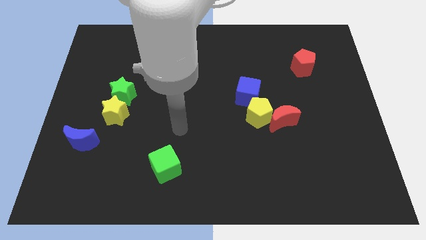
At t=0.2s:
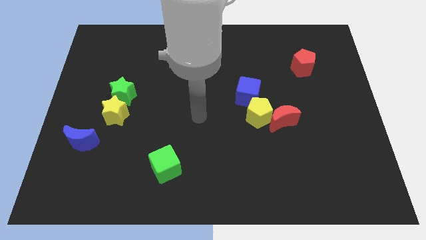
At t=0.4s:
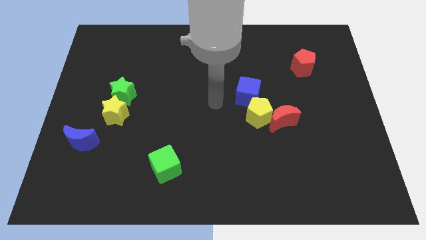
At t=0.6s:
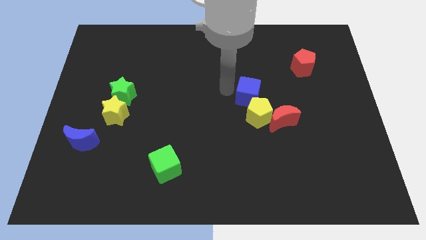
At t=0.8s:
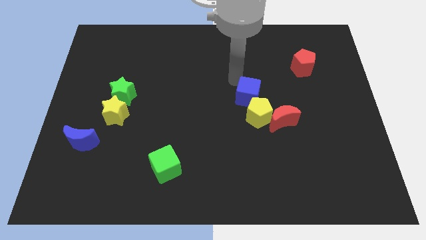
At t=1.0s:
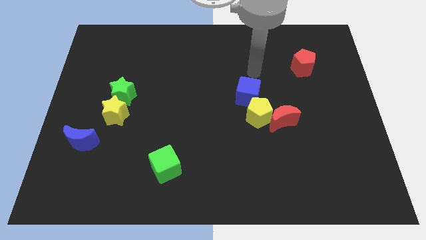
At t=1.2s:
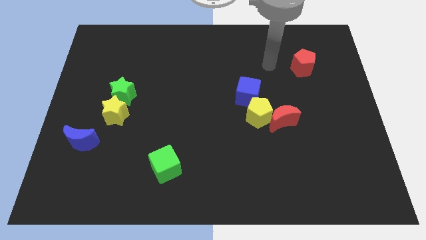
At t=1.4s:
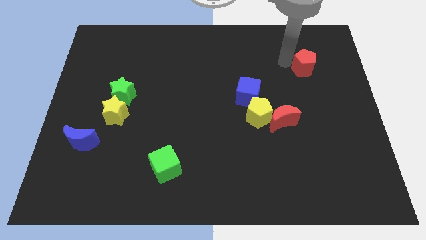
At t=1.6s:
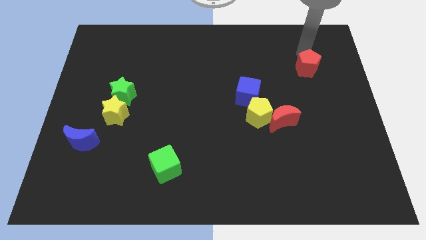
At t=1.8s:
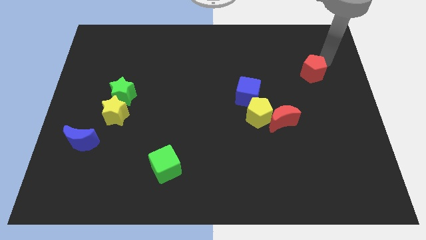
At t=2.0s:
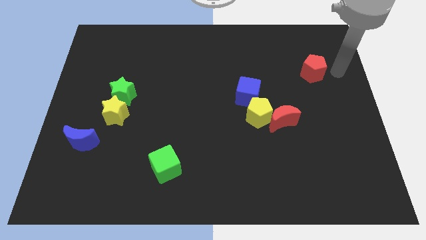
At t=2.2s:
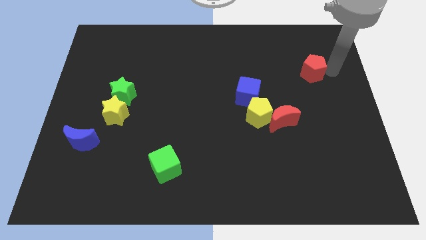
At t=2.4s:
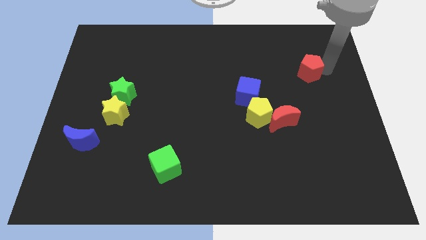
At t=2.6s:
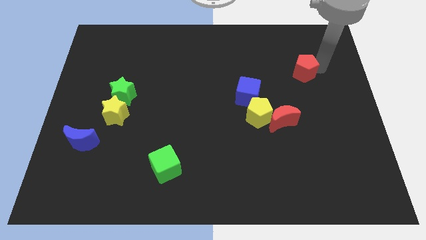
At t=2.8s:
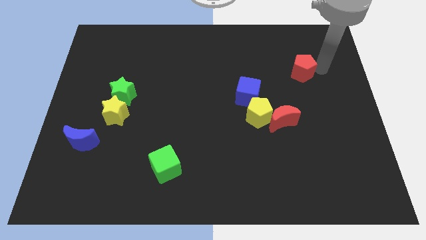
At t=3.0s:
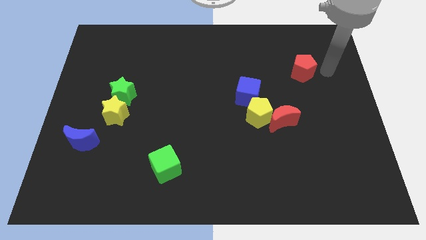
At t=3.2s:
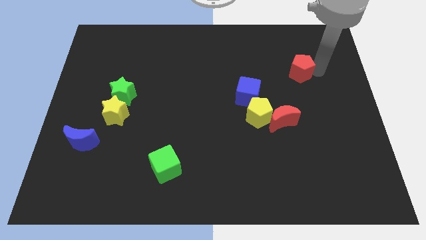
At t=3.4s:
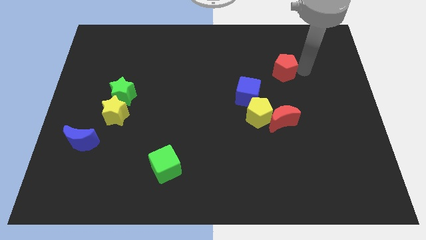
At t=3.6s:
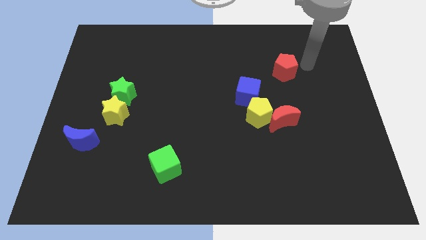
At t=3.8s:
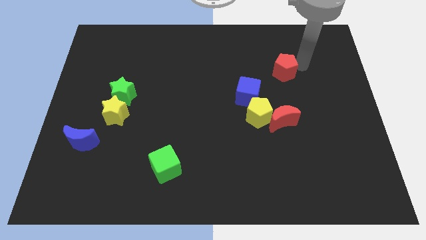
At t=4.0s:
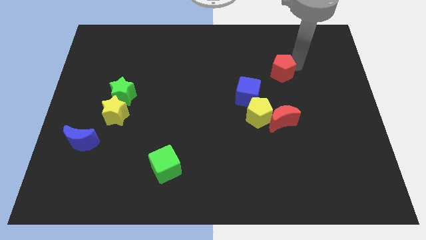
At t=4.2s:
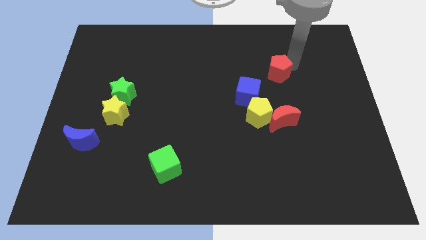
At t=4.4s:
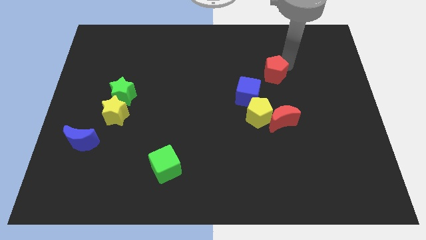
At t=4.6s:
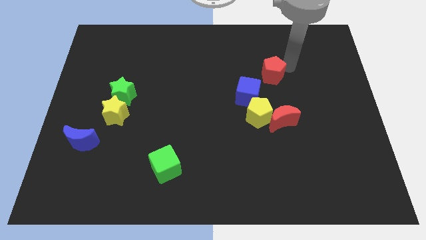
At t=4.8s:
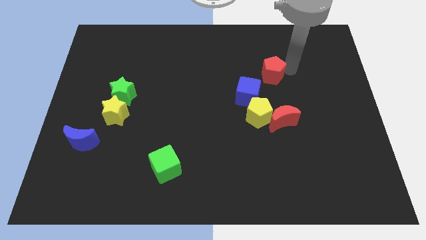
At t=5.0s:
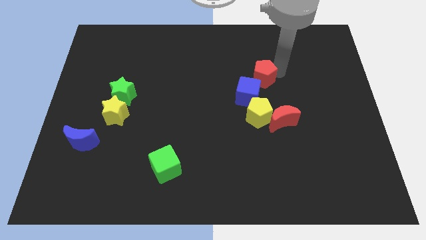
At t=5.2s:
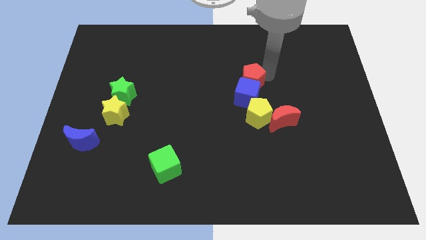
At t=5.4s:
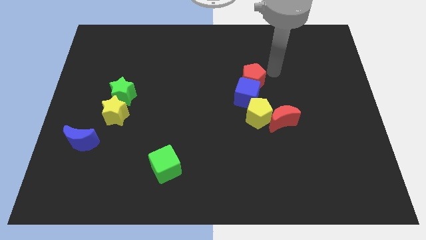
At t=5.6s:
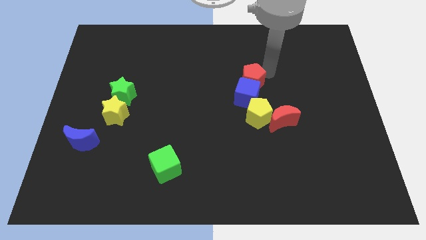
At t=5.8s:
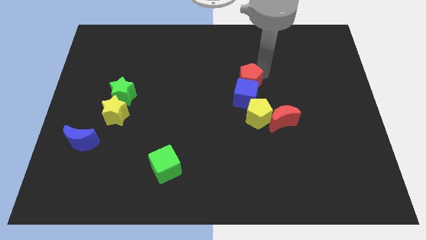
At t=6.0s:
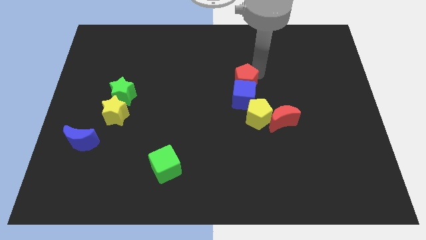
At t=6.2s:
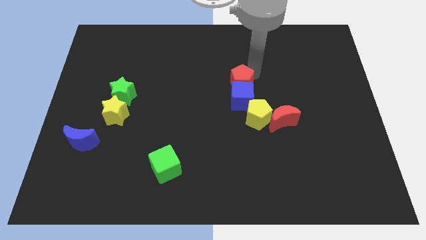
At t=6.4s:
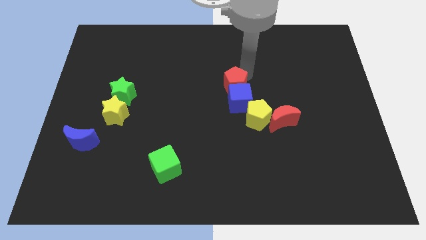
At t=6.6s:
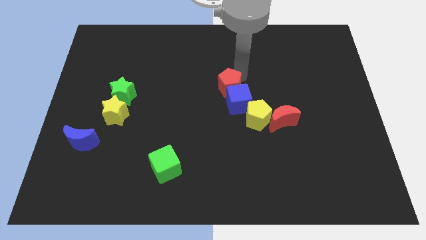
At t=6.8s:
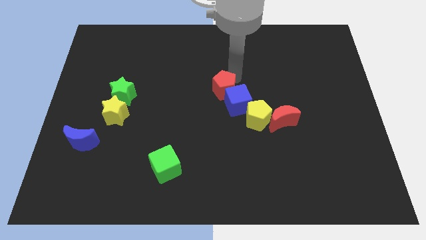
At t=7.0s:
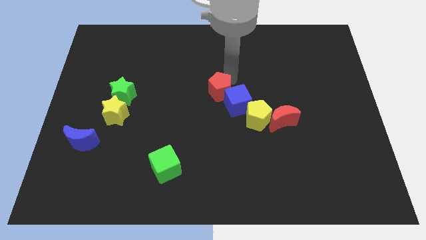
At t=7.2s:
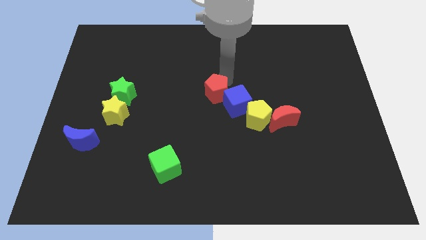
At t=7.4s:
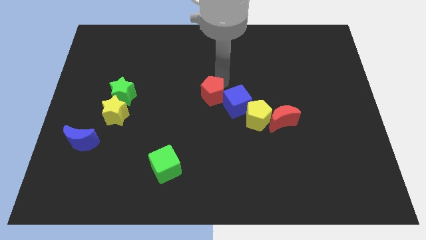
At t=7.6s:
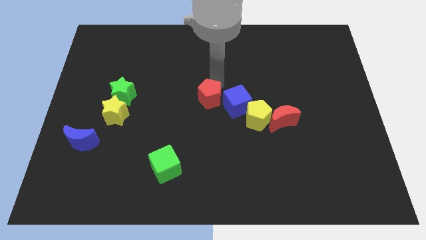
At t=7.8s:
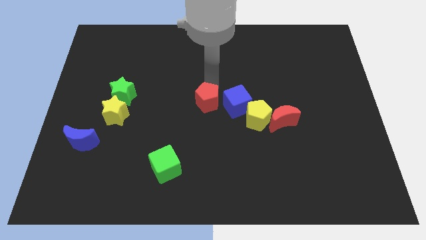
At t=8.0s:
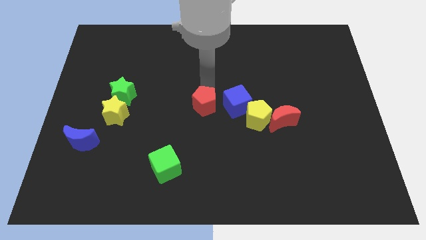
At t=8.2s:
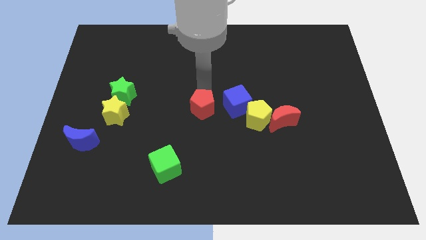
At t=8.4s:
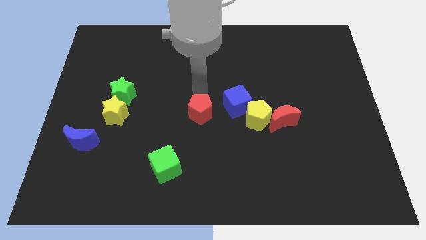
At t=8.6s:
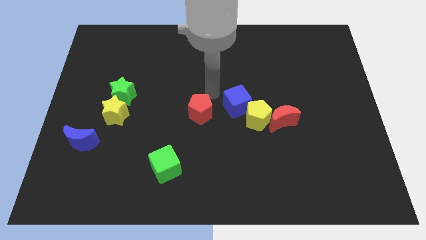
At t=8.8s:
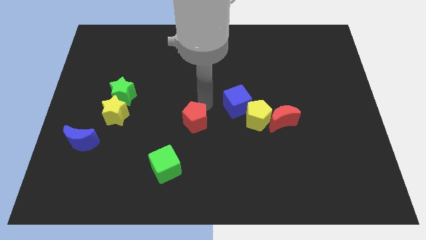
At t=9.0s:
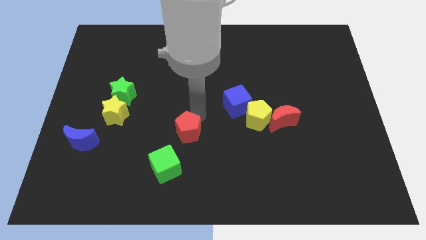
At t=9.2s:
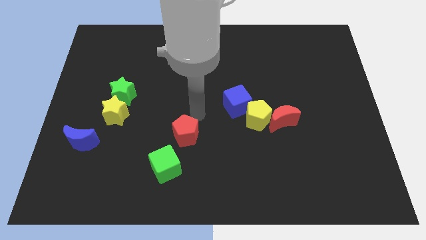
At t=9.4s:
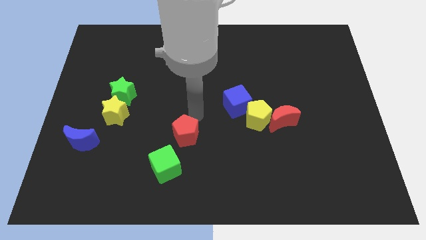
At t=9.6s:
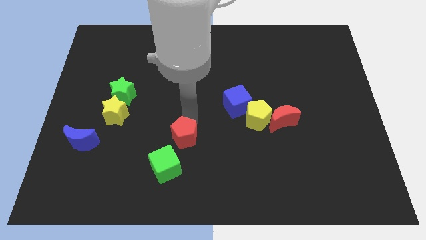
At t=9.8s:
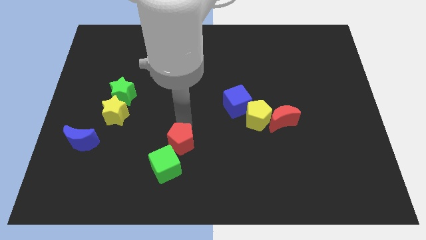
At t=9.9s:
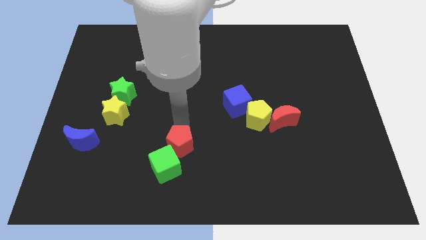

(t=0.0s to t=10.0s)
slide the red pentagon towards the green cube

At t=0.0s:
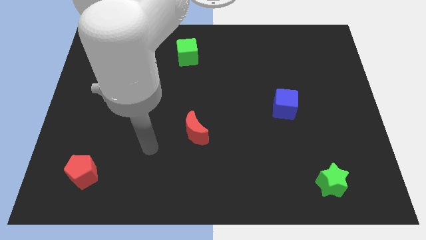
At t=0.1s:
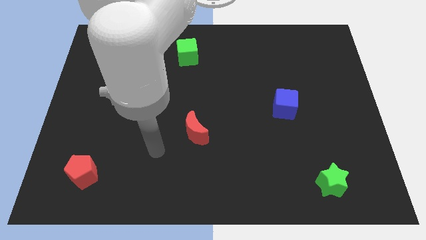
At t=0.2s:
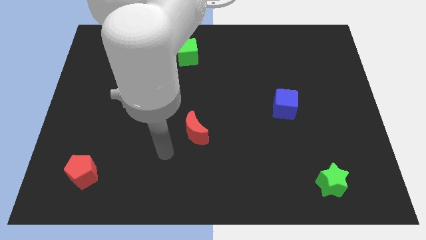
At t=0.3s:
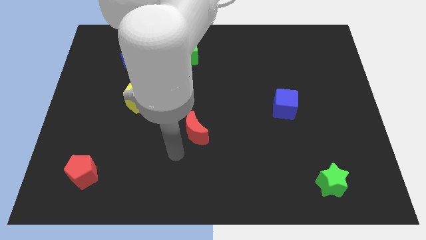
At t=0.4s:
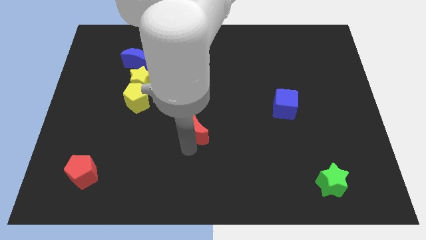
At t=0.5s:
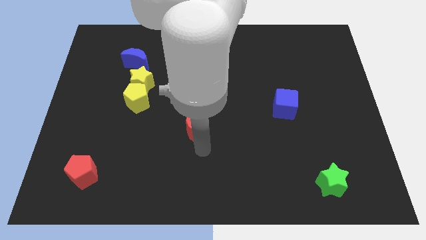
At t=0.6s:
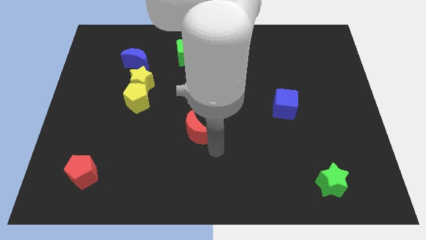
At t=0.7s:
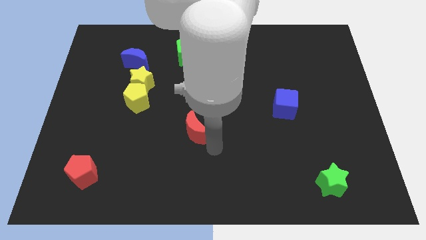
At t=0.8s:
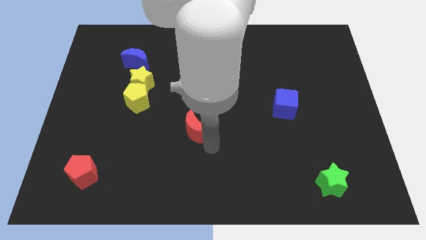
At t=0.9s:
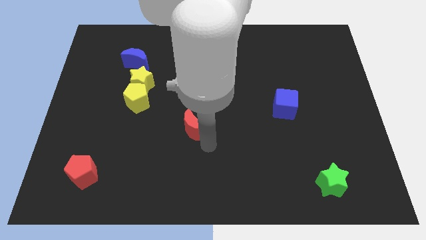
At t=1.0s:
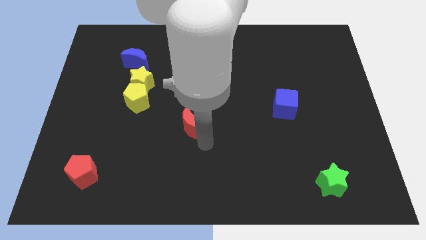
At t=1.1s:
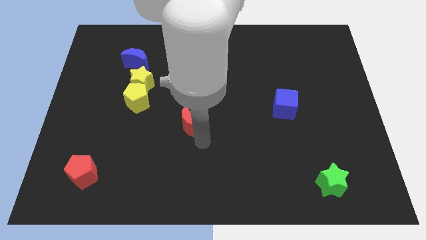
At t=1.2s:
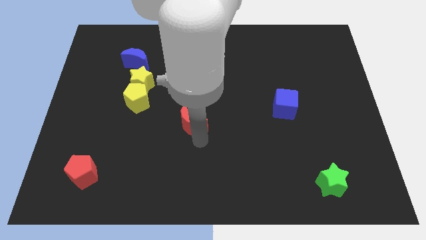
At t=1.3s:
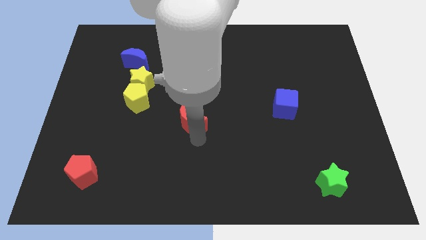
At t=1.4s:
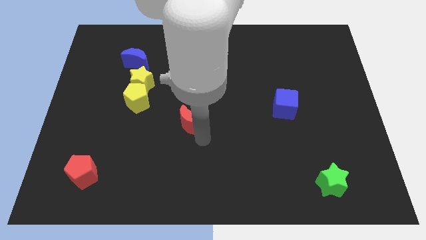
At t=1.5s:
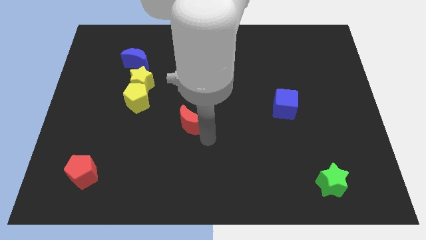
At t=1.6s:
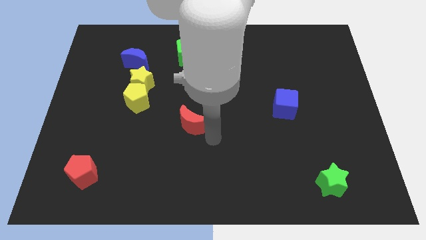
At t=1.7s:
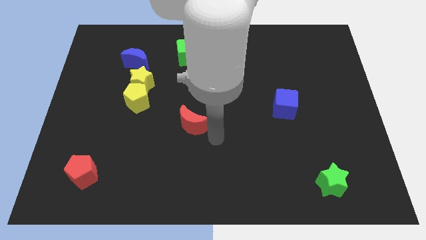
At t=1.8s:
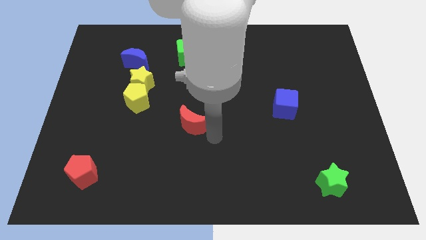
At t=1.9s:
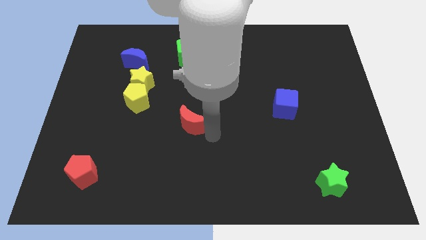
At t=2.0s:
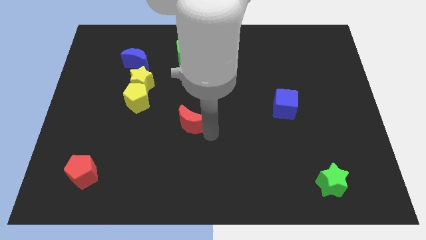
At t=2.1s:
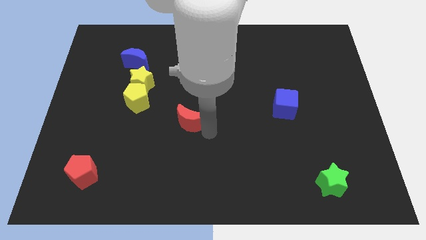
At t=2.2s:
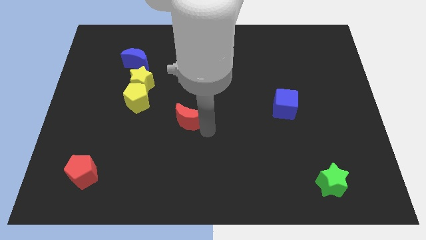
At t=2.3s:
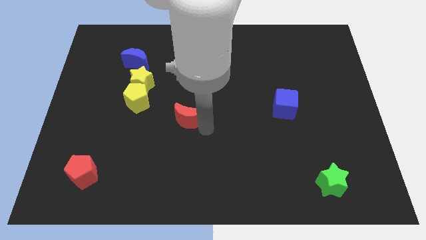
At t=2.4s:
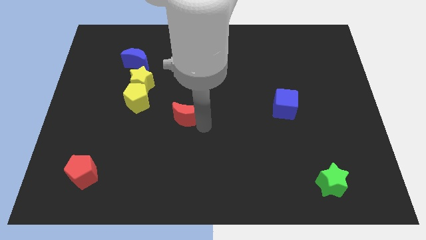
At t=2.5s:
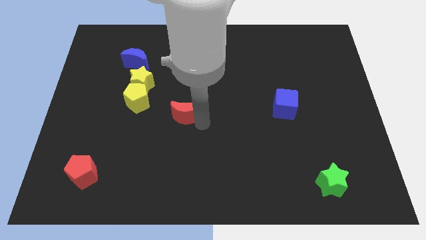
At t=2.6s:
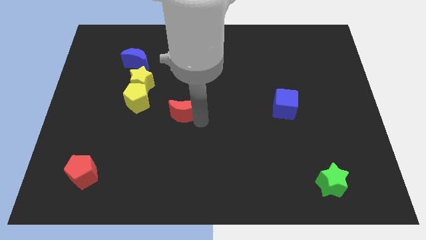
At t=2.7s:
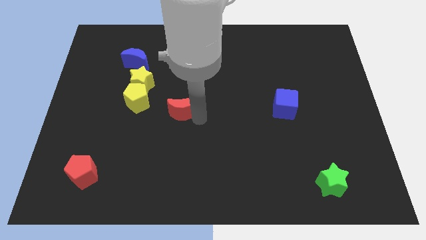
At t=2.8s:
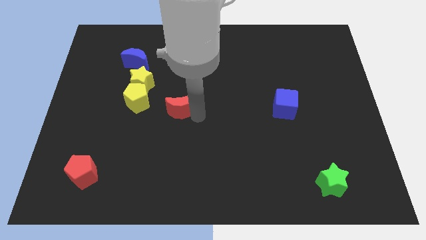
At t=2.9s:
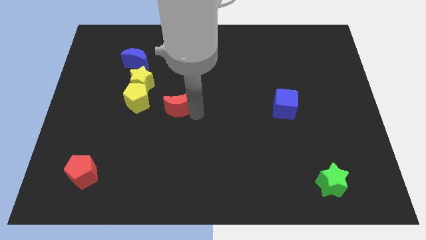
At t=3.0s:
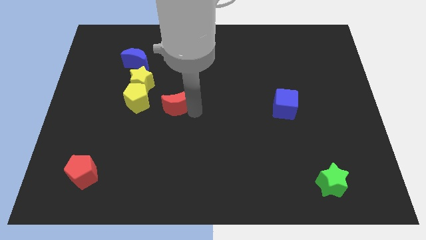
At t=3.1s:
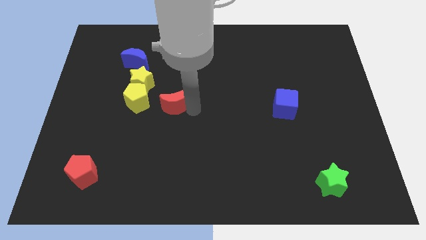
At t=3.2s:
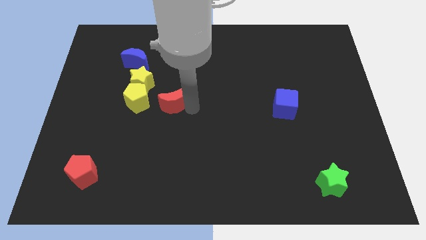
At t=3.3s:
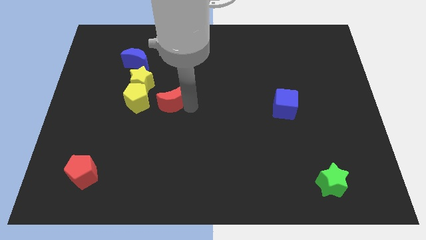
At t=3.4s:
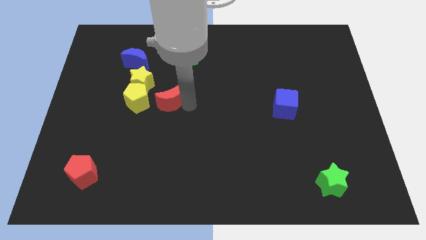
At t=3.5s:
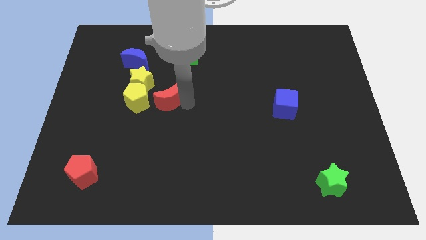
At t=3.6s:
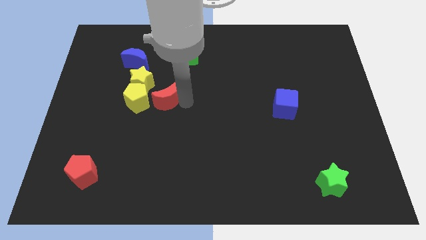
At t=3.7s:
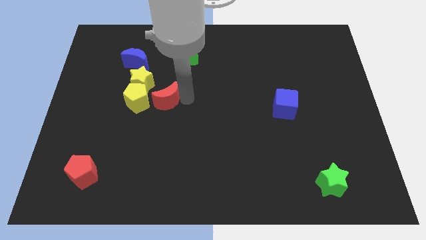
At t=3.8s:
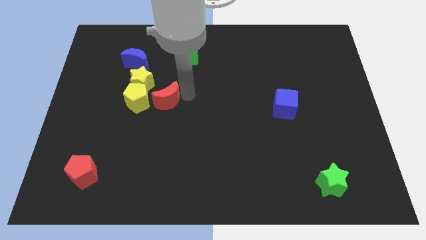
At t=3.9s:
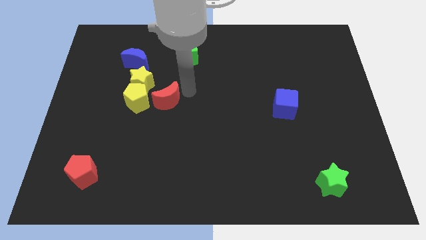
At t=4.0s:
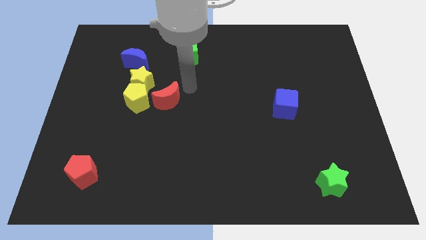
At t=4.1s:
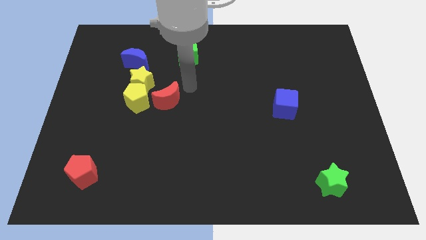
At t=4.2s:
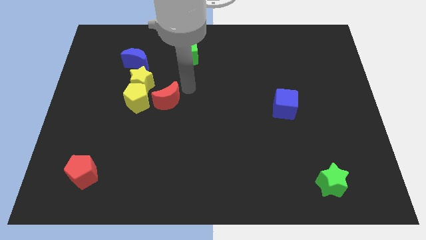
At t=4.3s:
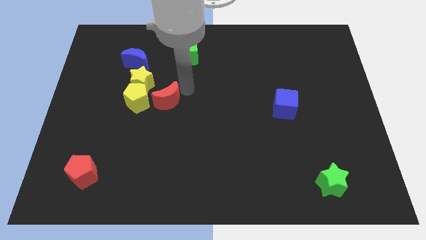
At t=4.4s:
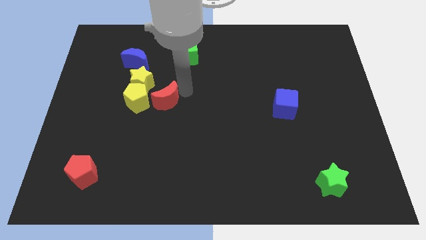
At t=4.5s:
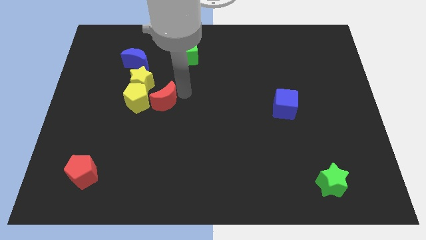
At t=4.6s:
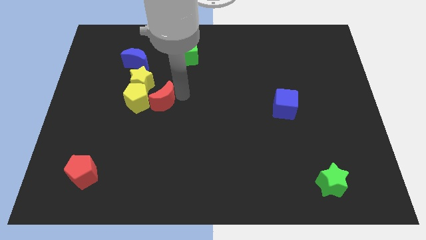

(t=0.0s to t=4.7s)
put the red moon towards the yellow pentagon
